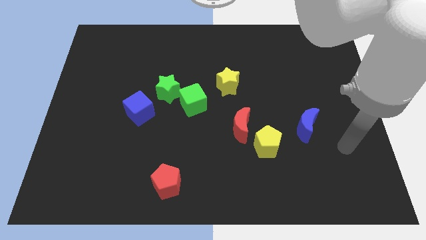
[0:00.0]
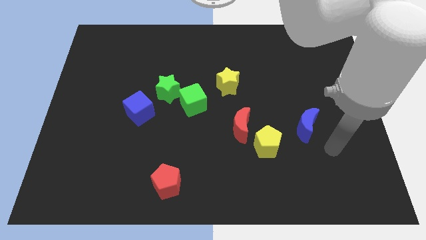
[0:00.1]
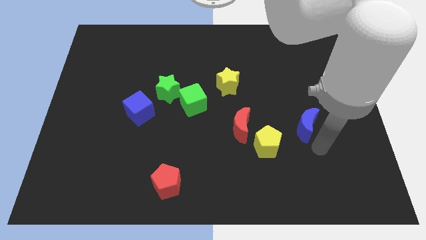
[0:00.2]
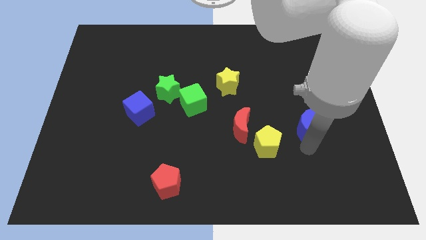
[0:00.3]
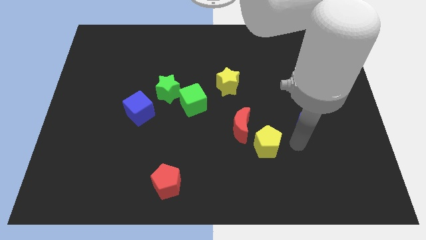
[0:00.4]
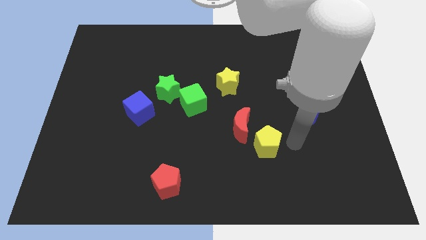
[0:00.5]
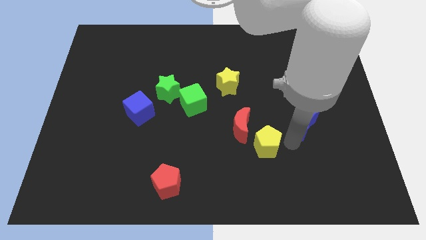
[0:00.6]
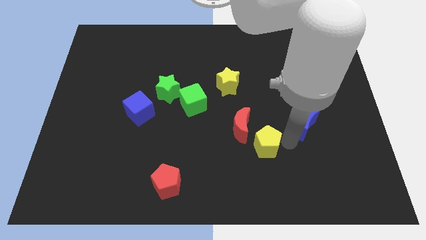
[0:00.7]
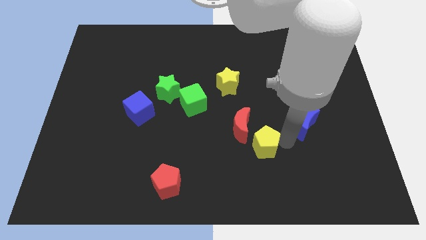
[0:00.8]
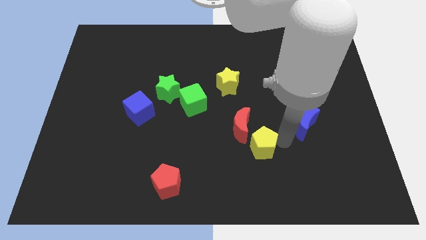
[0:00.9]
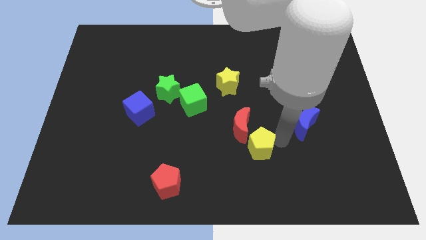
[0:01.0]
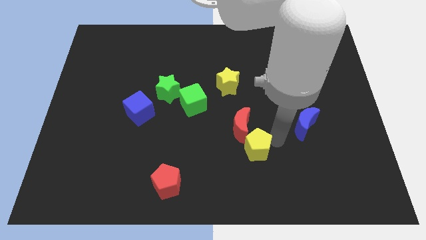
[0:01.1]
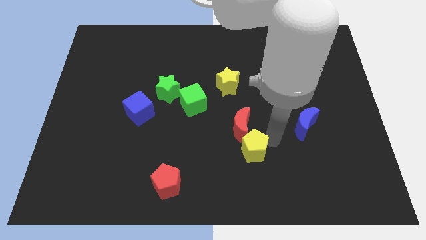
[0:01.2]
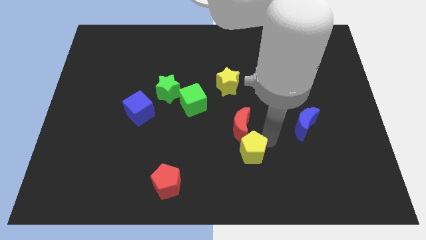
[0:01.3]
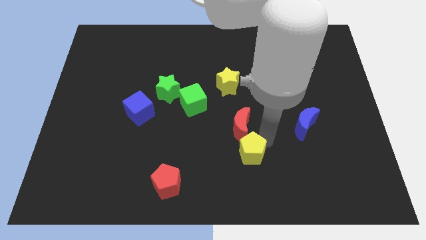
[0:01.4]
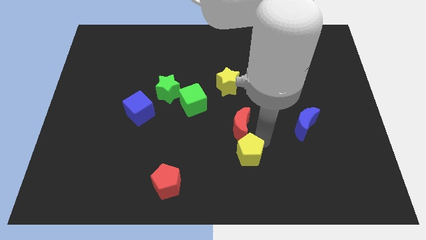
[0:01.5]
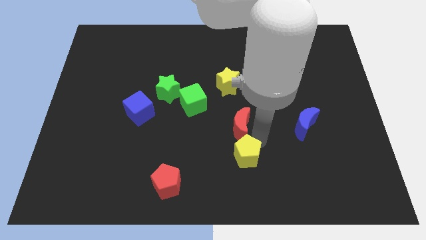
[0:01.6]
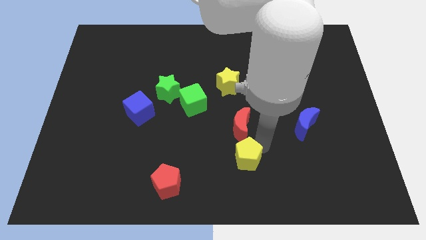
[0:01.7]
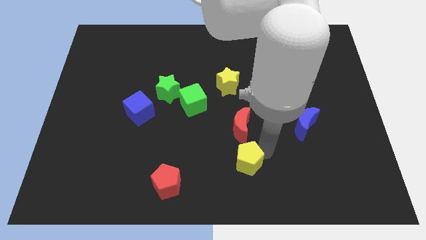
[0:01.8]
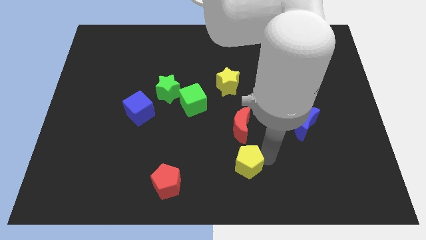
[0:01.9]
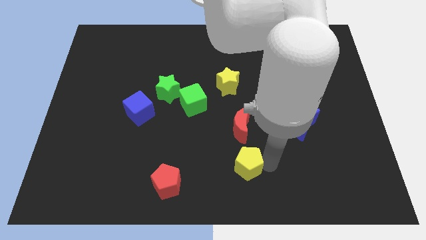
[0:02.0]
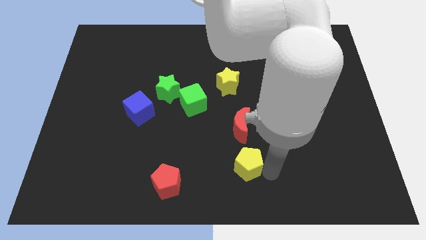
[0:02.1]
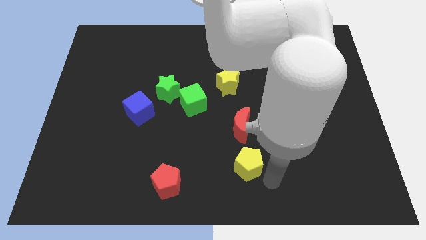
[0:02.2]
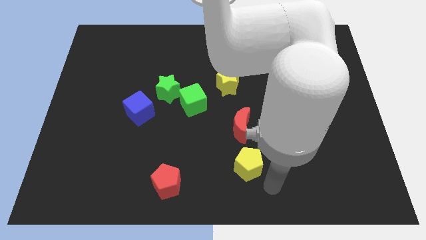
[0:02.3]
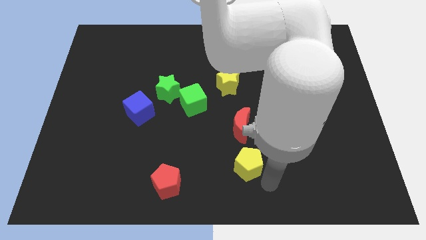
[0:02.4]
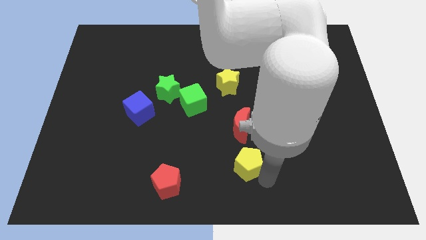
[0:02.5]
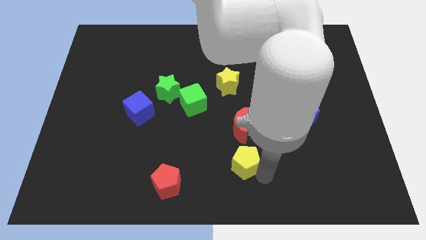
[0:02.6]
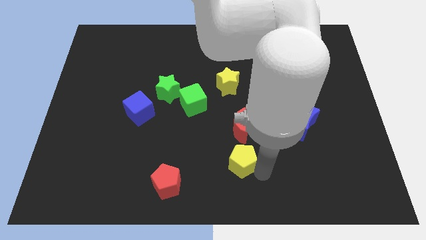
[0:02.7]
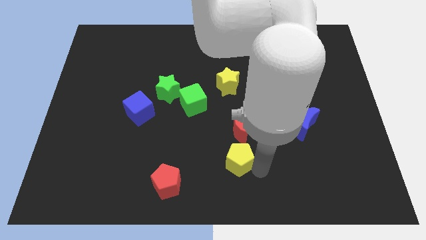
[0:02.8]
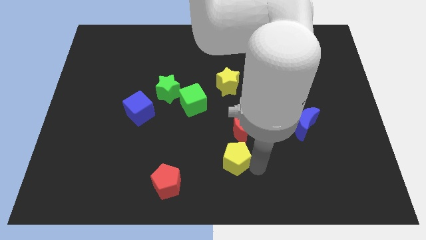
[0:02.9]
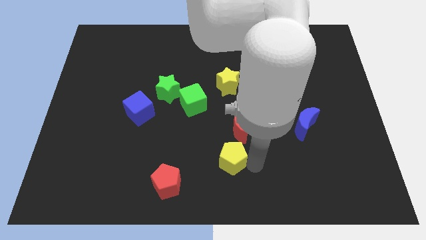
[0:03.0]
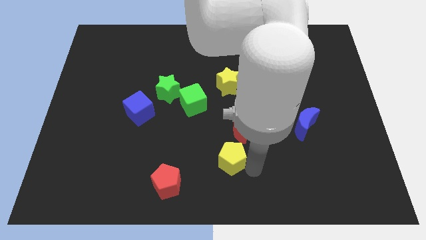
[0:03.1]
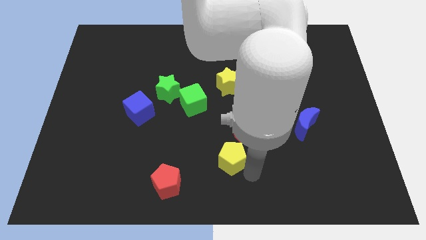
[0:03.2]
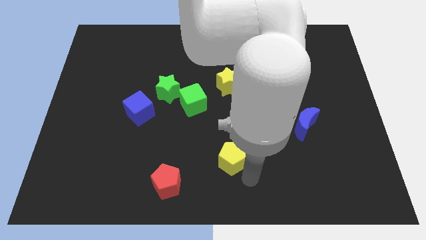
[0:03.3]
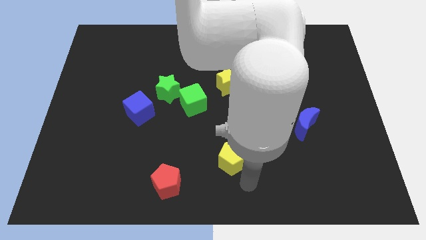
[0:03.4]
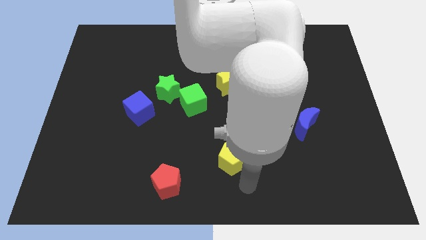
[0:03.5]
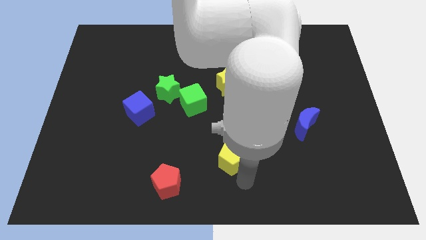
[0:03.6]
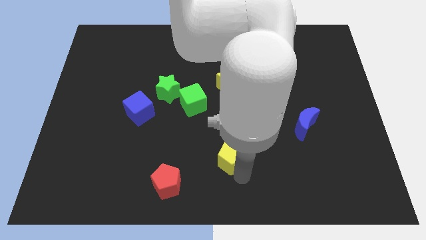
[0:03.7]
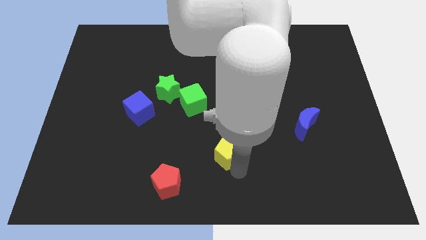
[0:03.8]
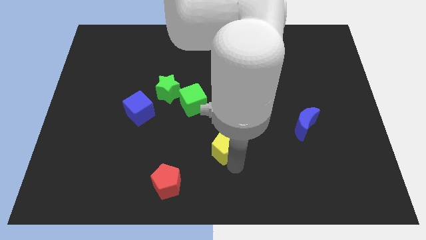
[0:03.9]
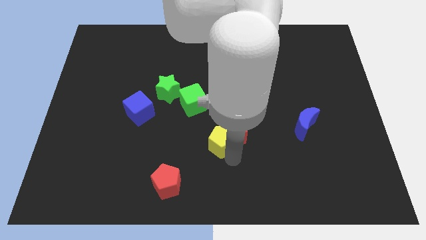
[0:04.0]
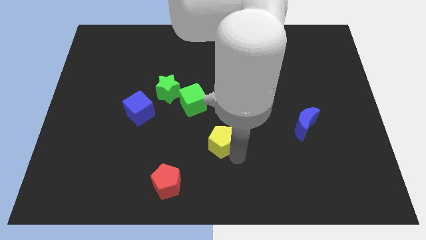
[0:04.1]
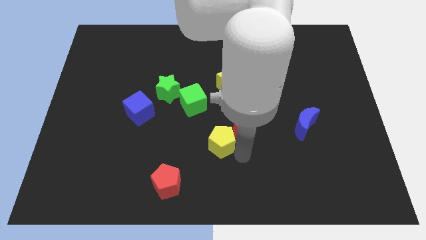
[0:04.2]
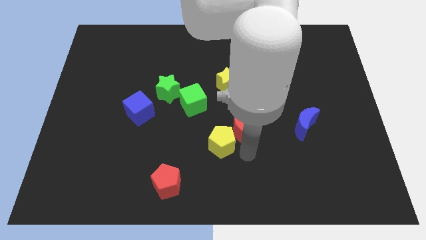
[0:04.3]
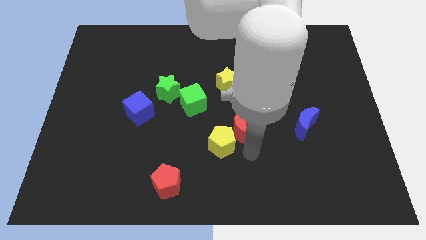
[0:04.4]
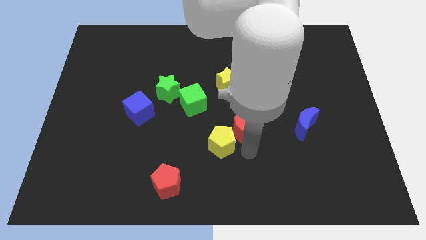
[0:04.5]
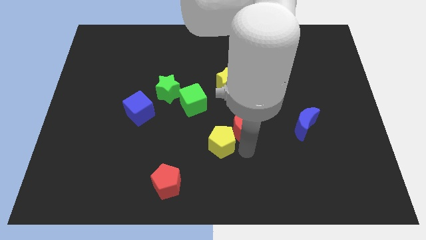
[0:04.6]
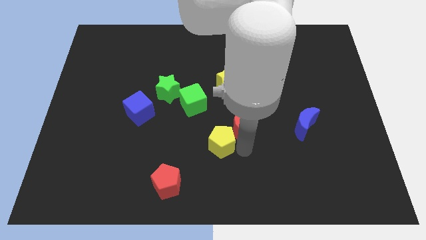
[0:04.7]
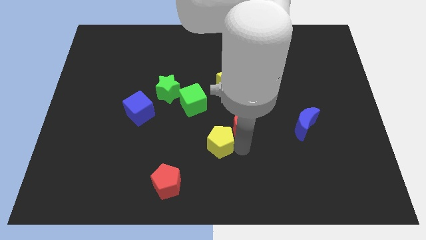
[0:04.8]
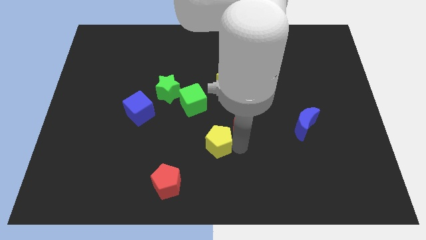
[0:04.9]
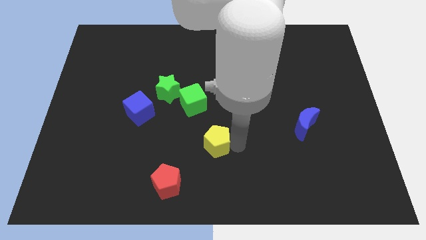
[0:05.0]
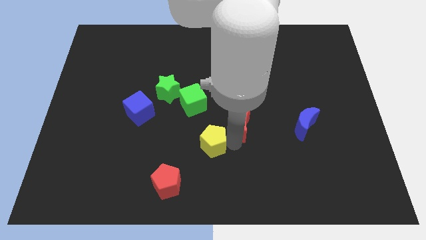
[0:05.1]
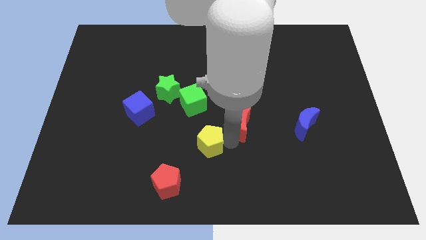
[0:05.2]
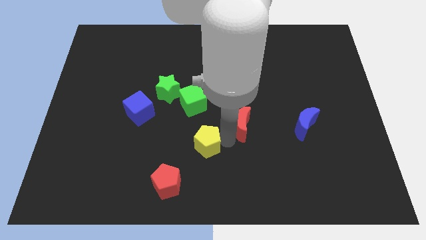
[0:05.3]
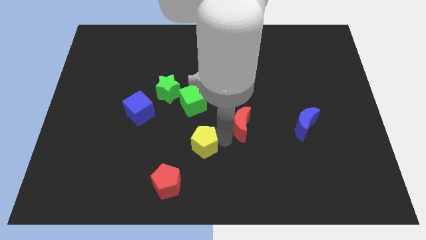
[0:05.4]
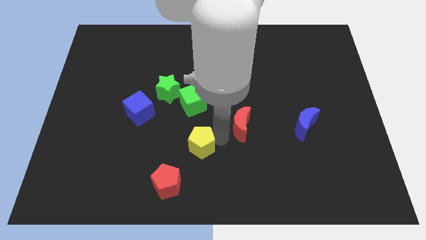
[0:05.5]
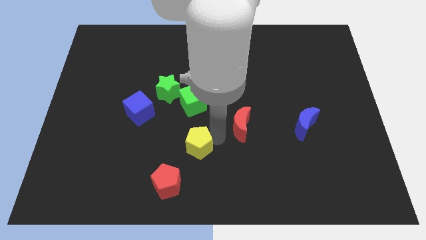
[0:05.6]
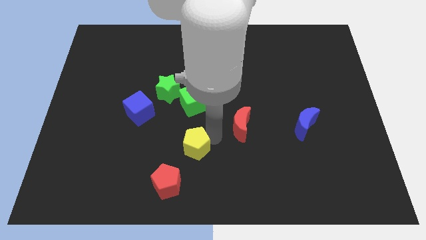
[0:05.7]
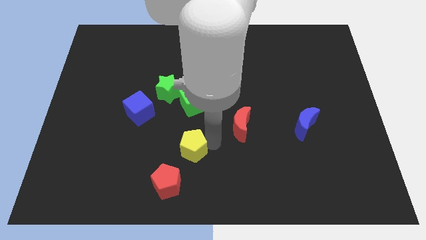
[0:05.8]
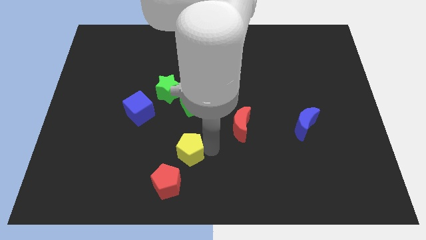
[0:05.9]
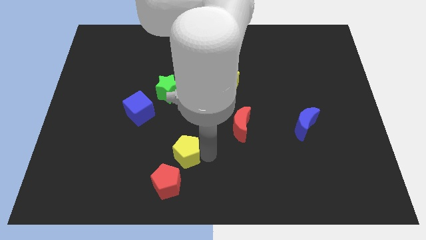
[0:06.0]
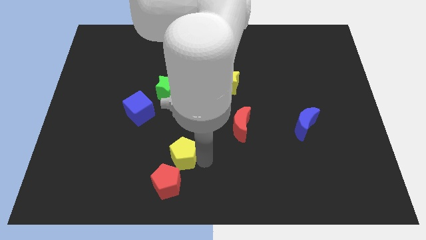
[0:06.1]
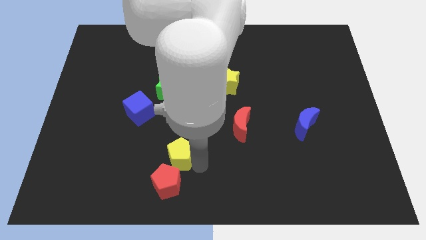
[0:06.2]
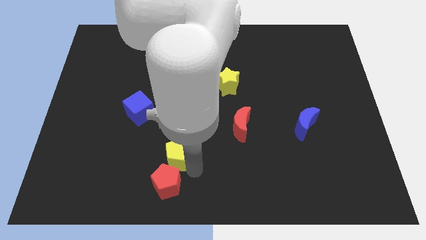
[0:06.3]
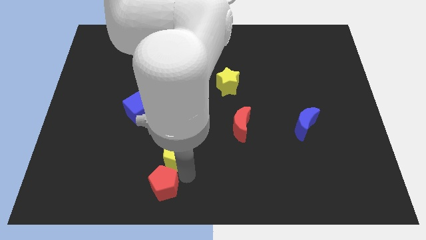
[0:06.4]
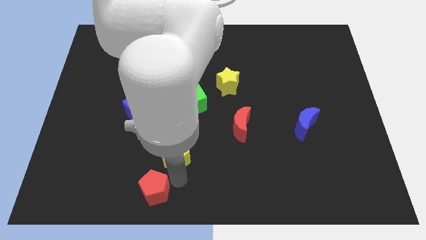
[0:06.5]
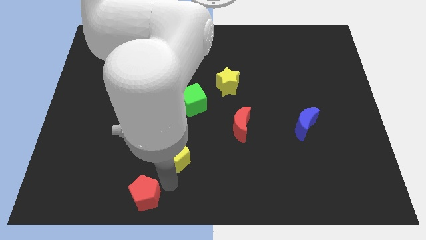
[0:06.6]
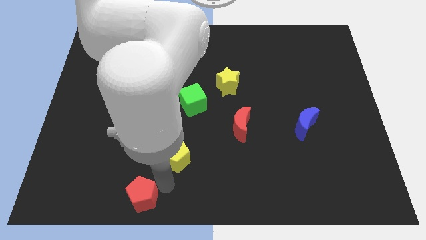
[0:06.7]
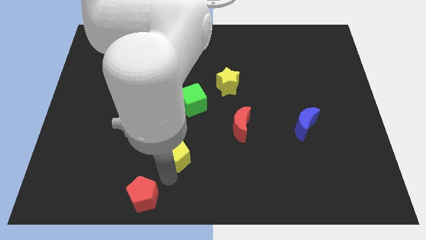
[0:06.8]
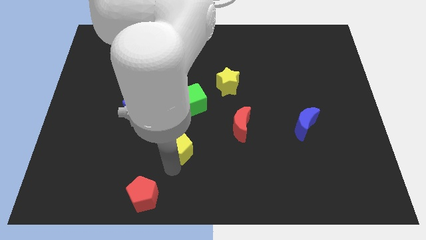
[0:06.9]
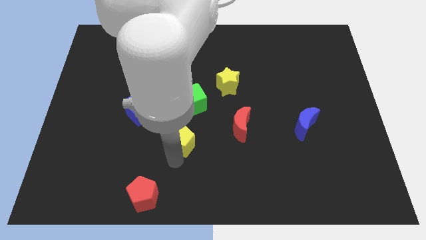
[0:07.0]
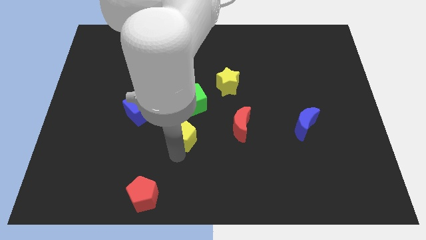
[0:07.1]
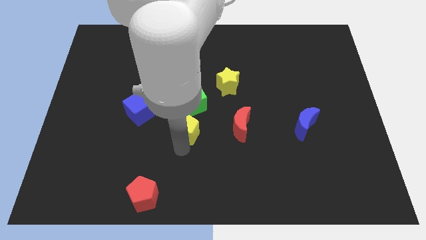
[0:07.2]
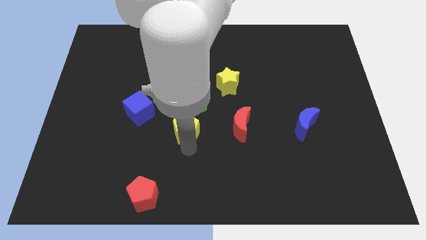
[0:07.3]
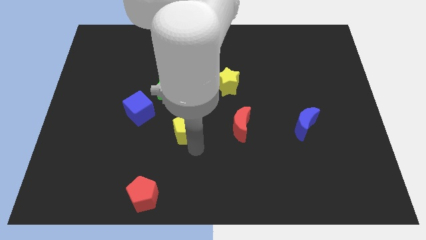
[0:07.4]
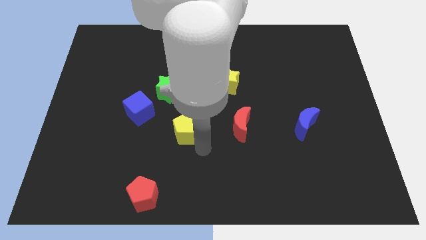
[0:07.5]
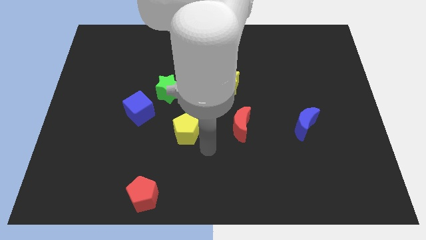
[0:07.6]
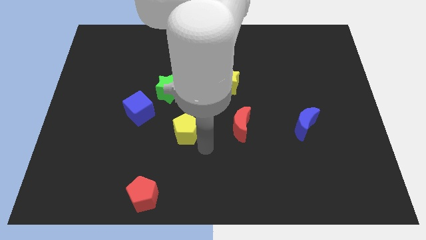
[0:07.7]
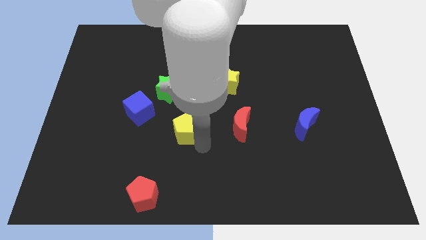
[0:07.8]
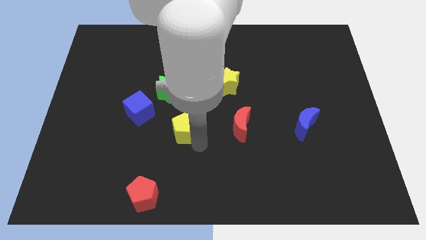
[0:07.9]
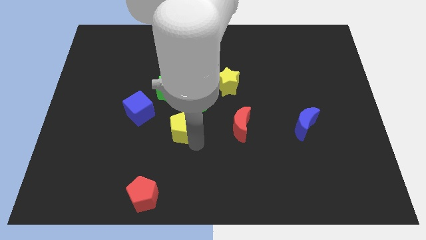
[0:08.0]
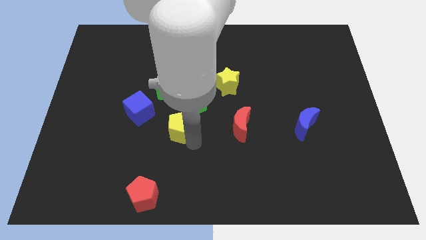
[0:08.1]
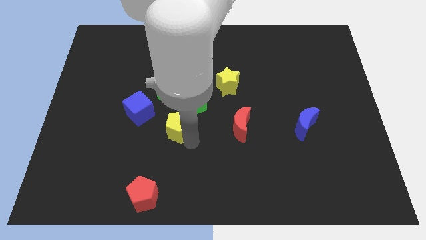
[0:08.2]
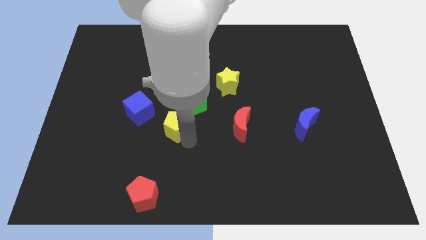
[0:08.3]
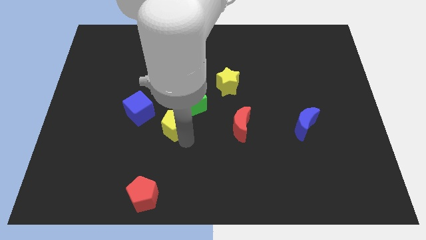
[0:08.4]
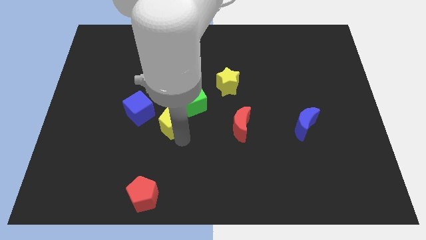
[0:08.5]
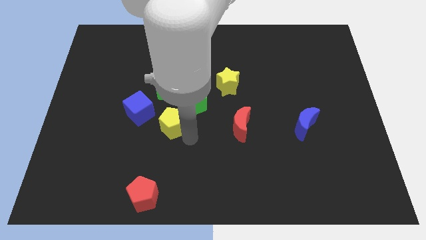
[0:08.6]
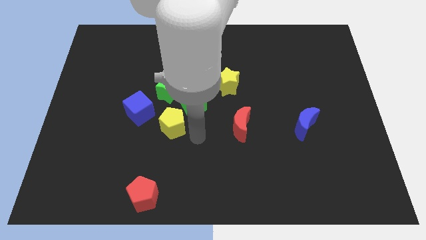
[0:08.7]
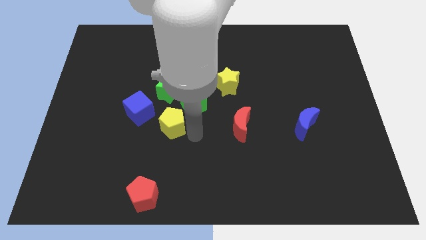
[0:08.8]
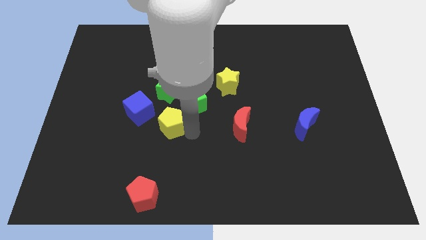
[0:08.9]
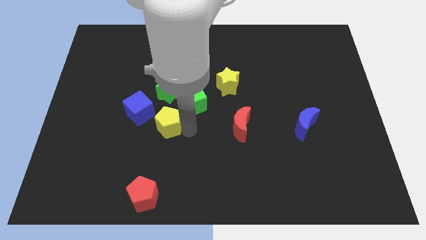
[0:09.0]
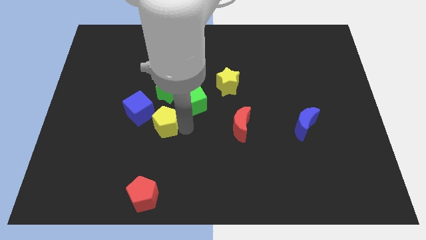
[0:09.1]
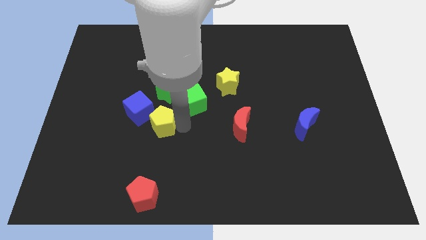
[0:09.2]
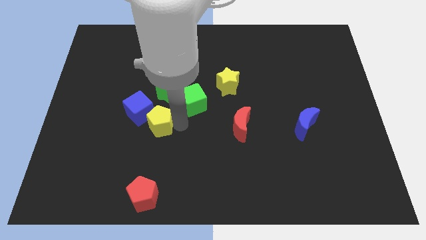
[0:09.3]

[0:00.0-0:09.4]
move the yellow pentagon to the blue cube
